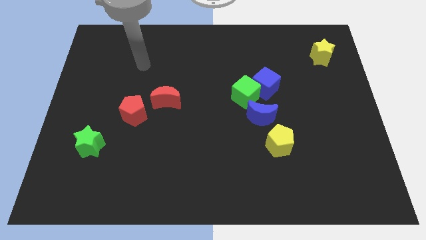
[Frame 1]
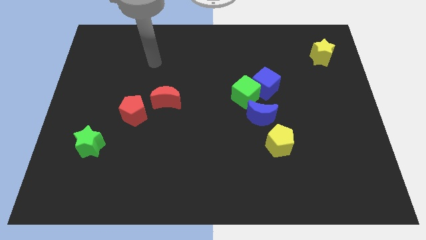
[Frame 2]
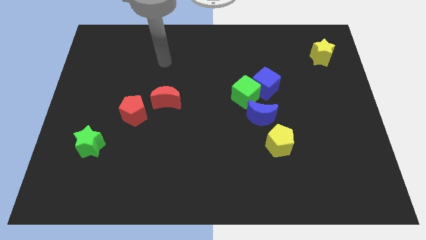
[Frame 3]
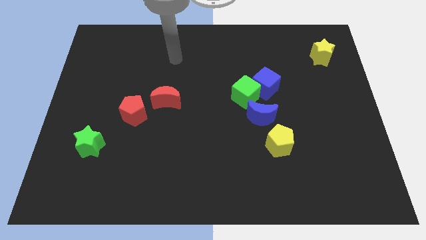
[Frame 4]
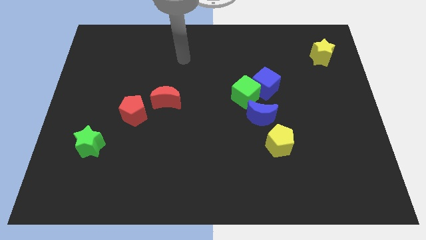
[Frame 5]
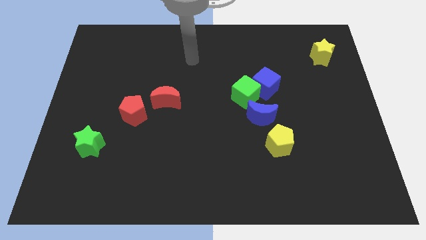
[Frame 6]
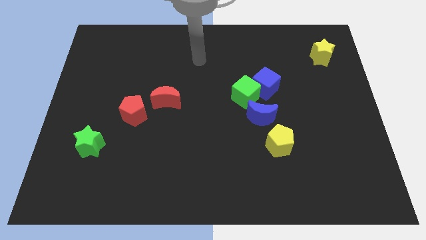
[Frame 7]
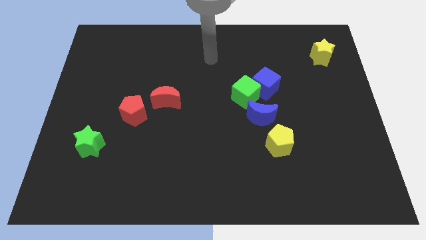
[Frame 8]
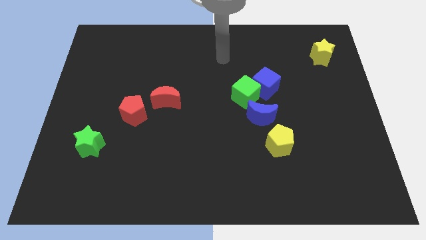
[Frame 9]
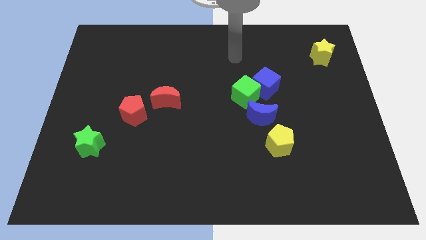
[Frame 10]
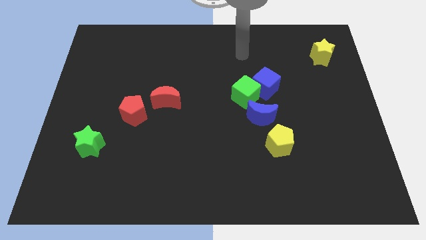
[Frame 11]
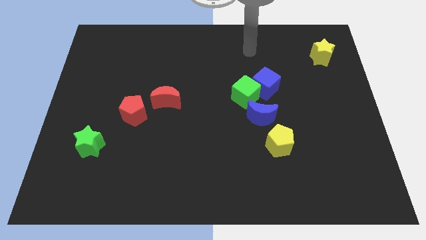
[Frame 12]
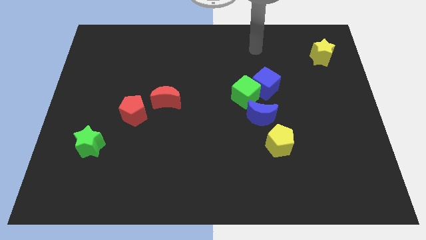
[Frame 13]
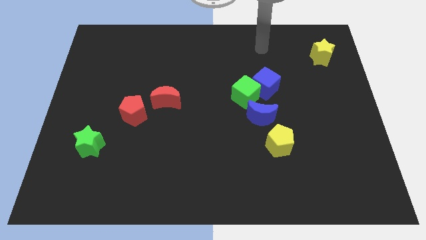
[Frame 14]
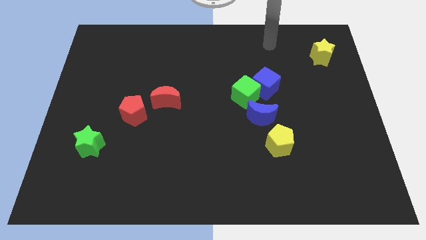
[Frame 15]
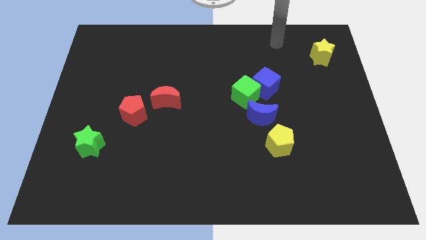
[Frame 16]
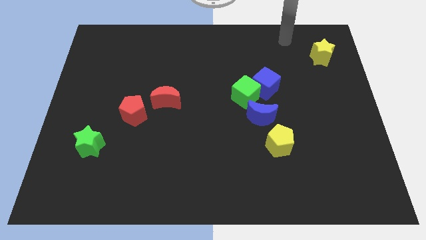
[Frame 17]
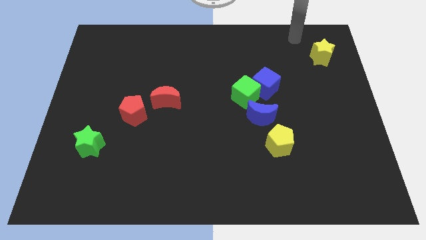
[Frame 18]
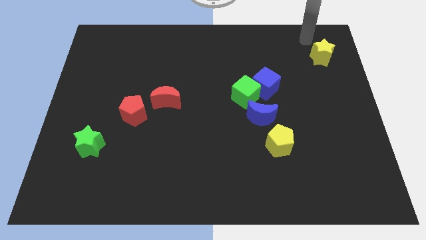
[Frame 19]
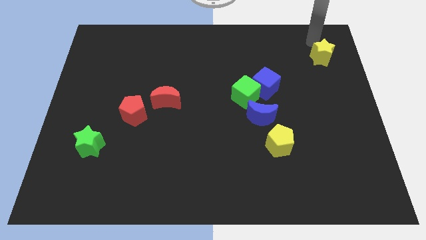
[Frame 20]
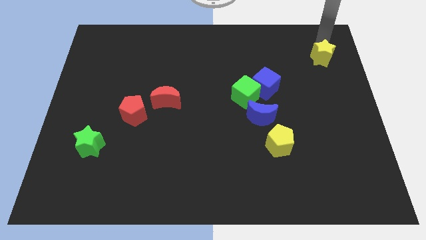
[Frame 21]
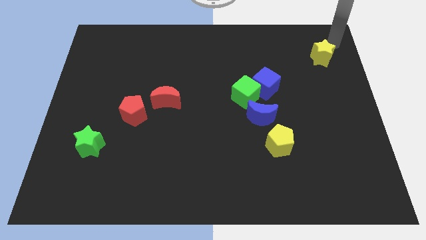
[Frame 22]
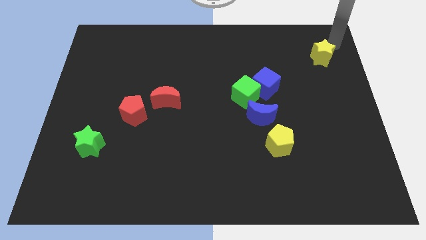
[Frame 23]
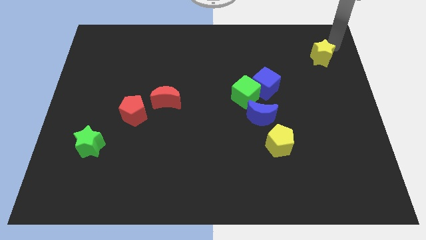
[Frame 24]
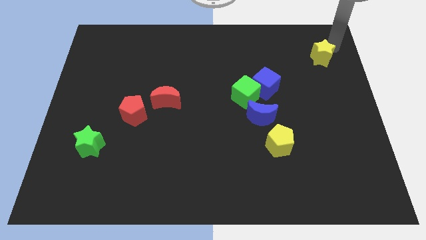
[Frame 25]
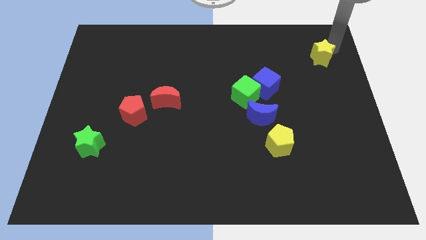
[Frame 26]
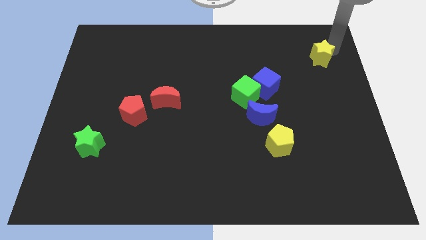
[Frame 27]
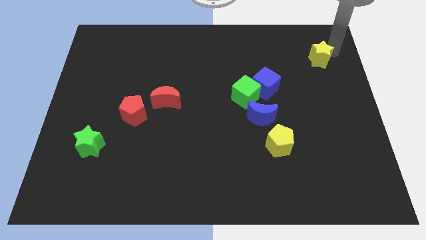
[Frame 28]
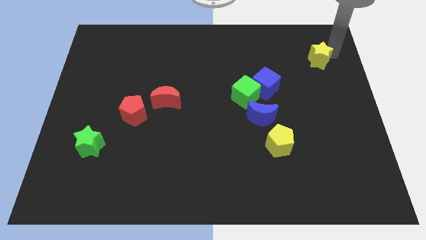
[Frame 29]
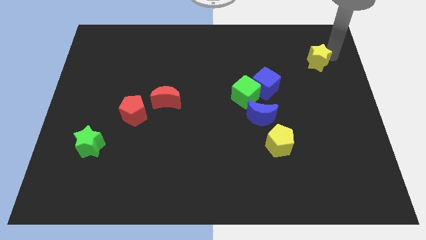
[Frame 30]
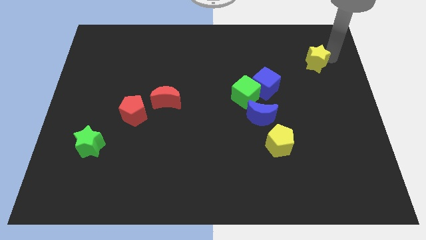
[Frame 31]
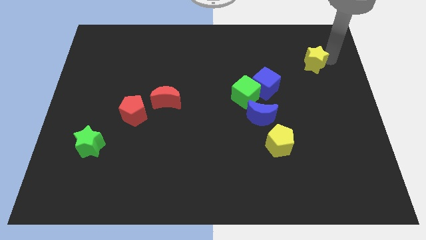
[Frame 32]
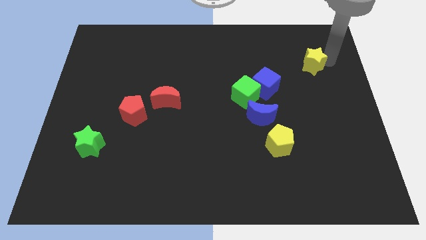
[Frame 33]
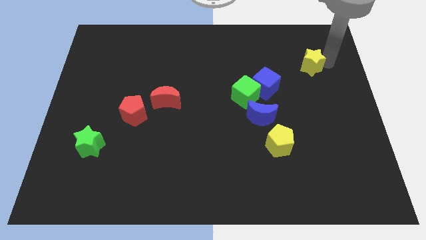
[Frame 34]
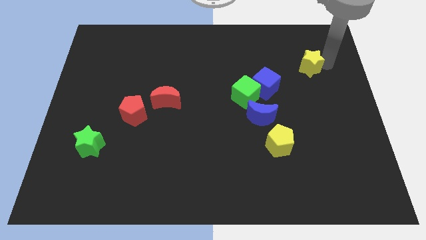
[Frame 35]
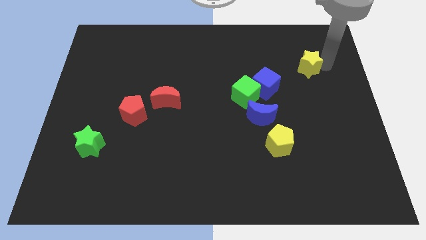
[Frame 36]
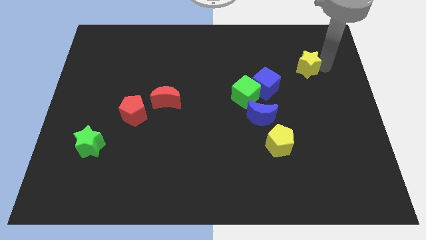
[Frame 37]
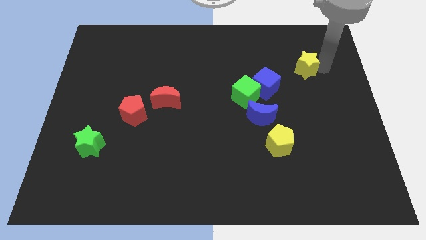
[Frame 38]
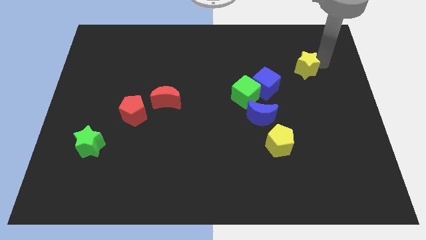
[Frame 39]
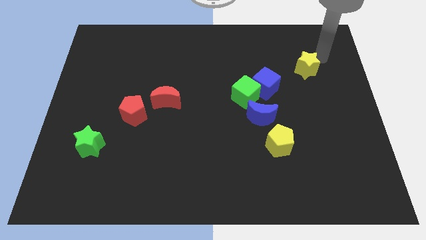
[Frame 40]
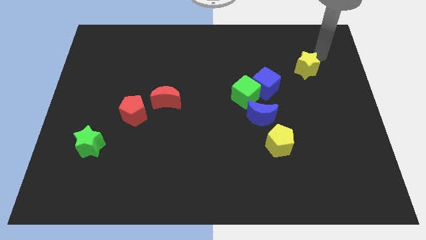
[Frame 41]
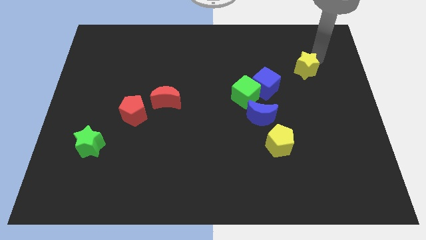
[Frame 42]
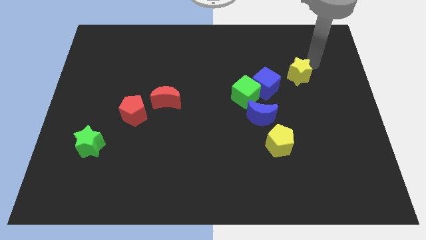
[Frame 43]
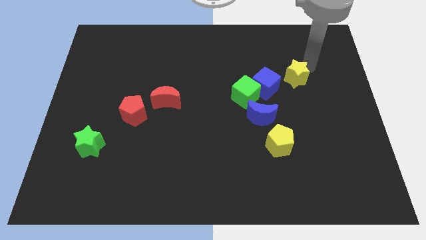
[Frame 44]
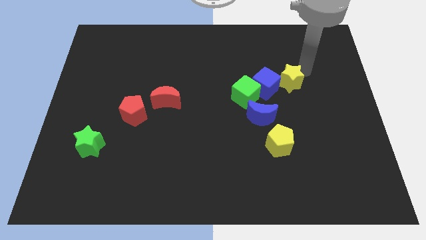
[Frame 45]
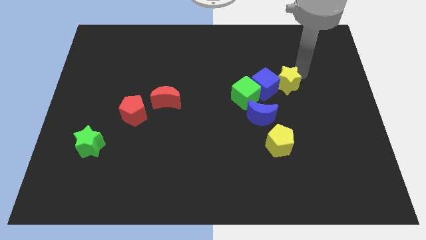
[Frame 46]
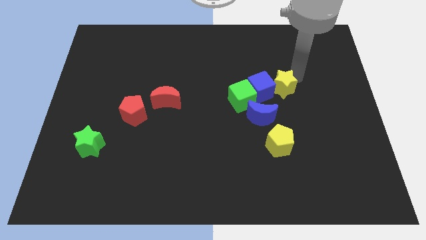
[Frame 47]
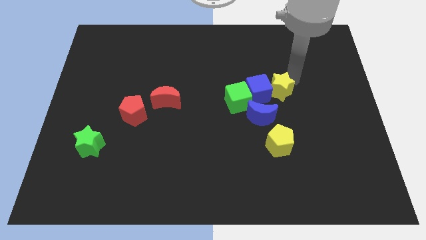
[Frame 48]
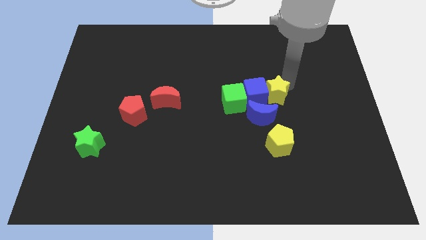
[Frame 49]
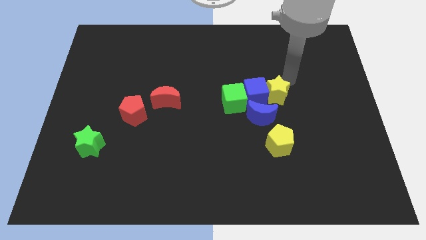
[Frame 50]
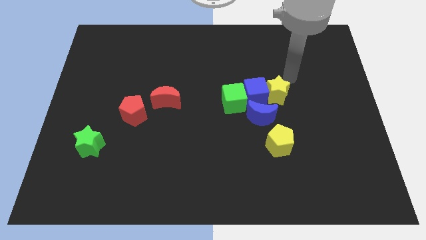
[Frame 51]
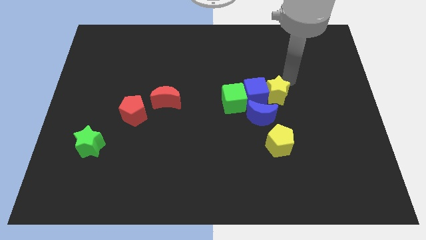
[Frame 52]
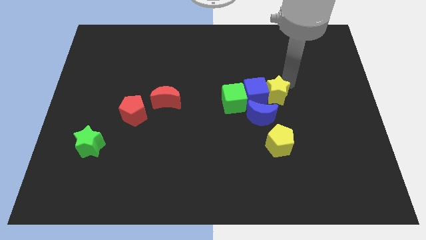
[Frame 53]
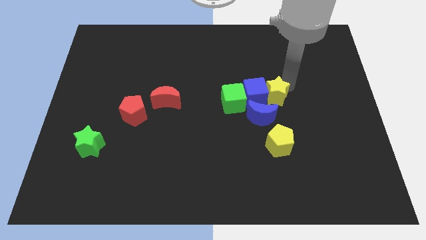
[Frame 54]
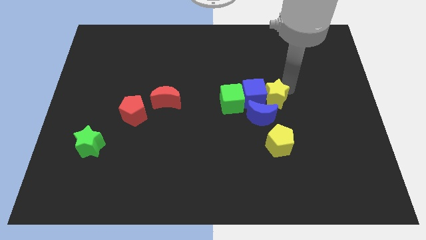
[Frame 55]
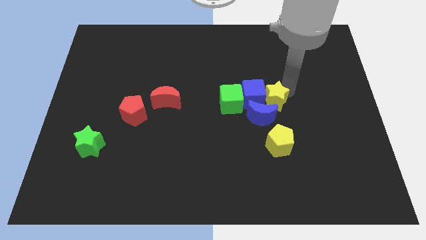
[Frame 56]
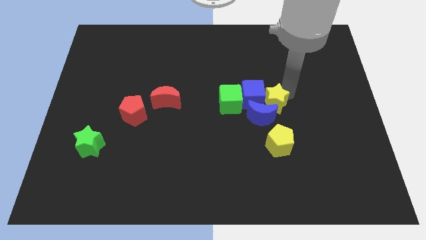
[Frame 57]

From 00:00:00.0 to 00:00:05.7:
put the yellow star next to the blue moon

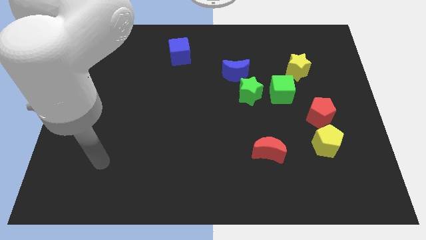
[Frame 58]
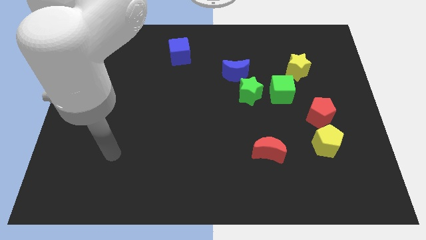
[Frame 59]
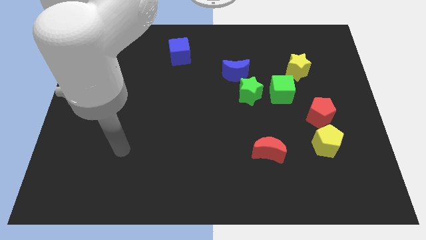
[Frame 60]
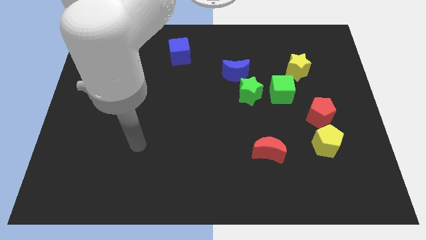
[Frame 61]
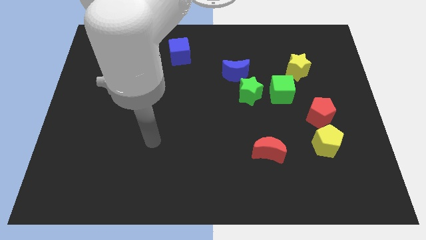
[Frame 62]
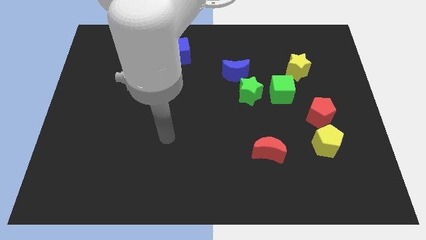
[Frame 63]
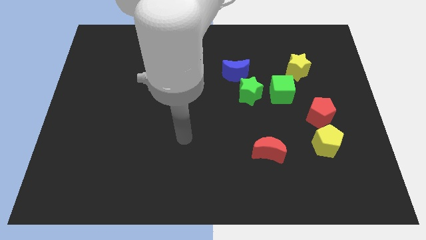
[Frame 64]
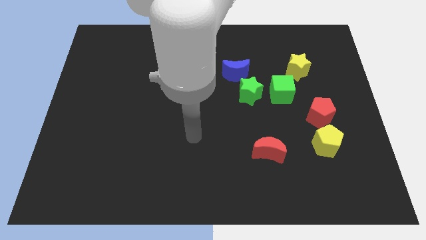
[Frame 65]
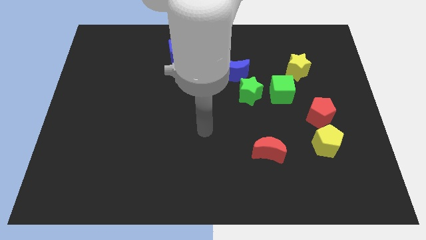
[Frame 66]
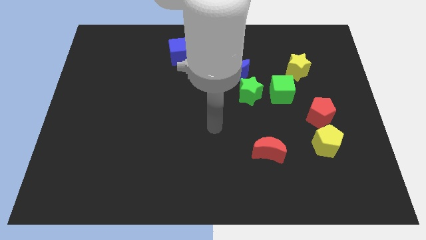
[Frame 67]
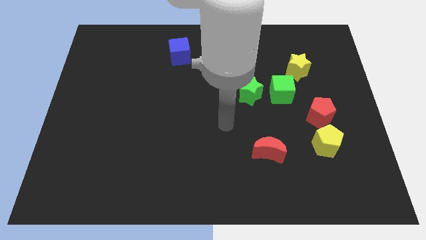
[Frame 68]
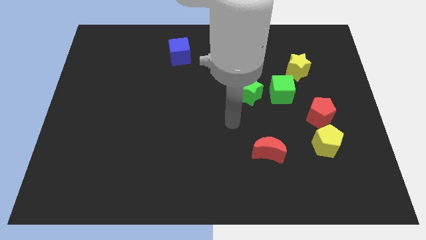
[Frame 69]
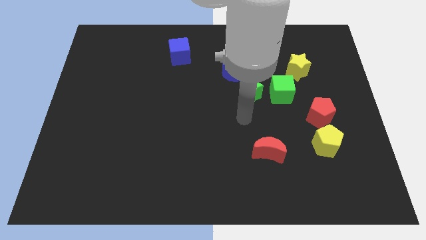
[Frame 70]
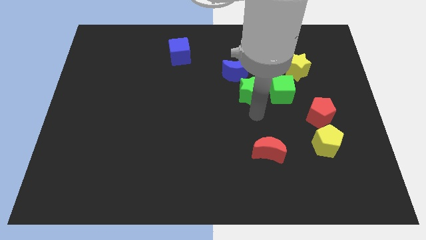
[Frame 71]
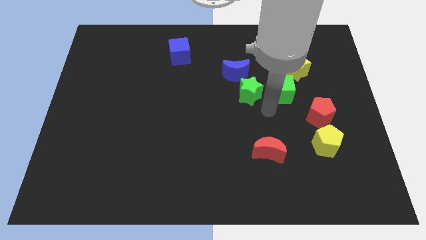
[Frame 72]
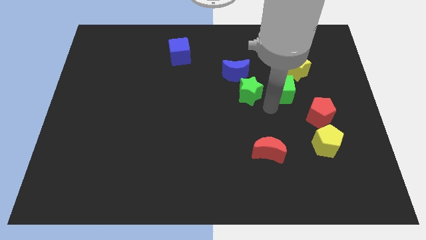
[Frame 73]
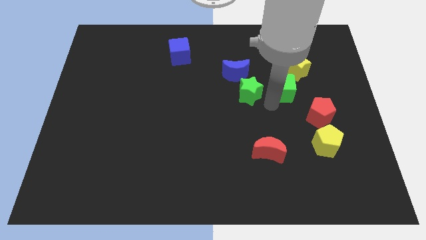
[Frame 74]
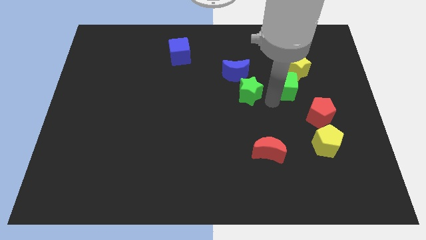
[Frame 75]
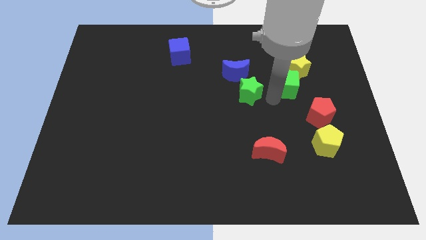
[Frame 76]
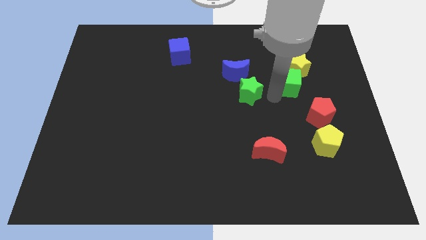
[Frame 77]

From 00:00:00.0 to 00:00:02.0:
push the green cube towards the yellow star
